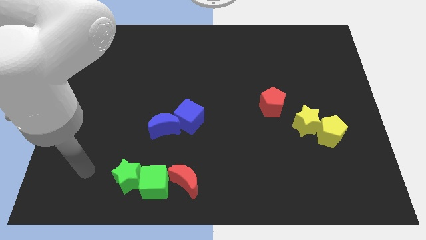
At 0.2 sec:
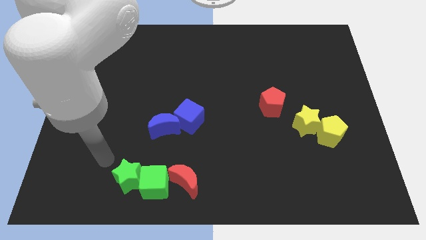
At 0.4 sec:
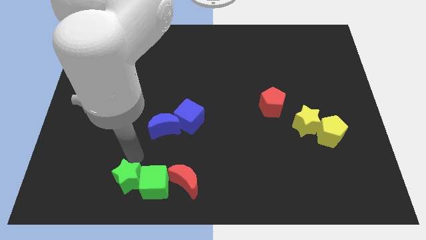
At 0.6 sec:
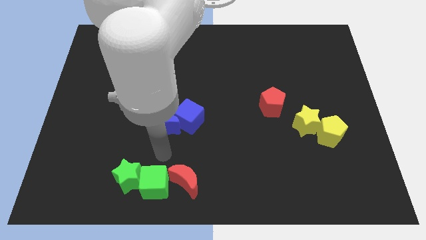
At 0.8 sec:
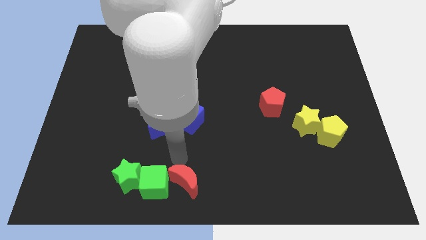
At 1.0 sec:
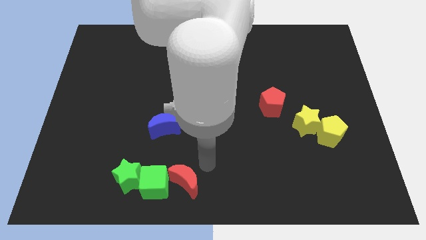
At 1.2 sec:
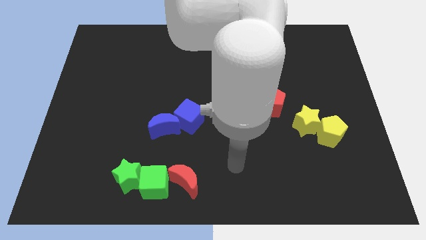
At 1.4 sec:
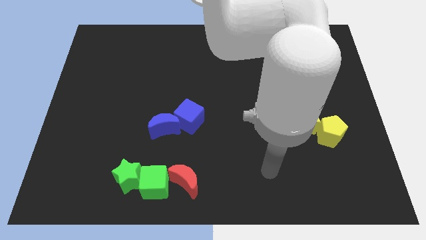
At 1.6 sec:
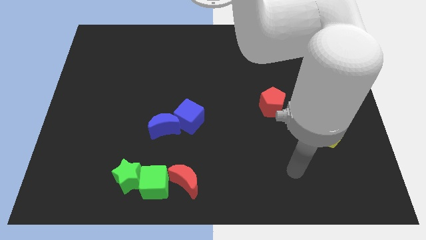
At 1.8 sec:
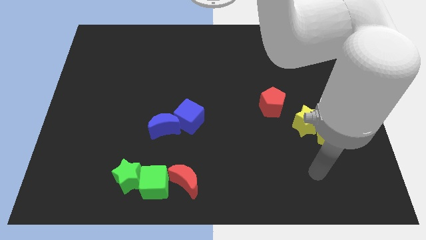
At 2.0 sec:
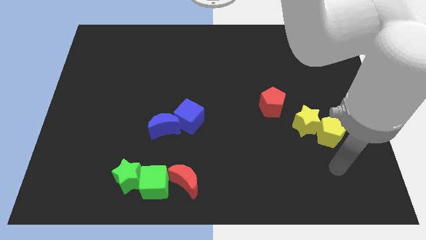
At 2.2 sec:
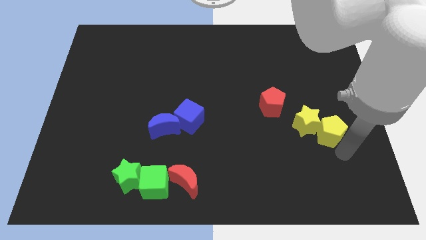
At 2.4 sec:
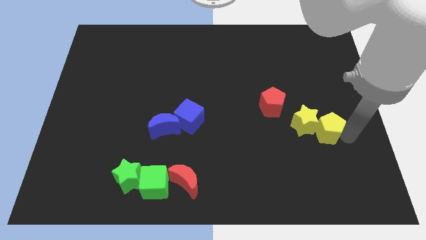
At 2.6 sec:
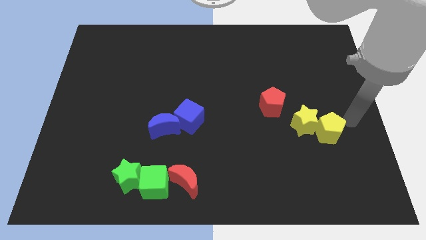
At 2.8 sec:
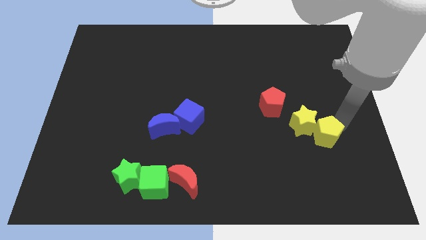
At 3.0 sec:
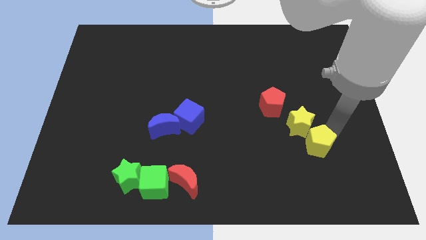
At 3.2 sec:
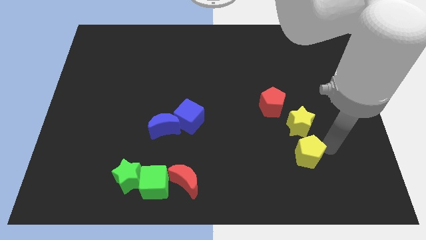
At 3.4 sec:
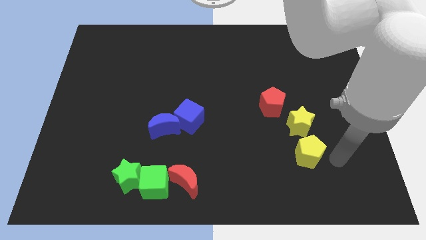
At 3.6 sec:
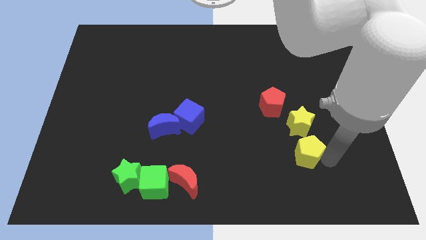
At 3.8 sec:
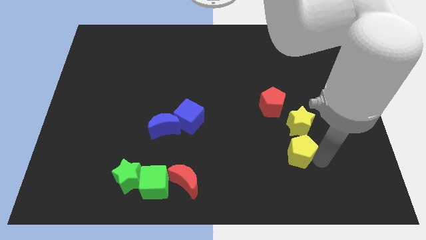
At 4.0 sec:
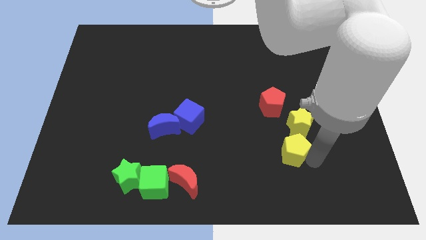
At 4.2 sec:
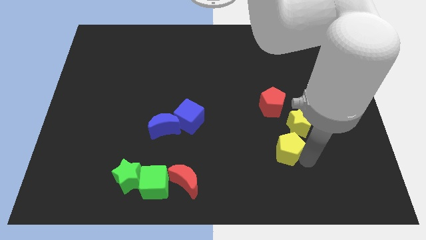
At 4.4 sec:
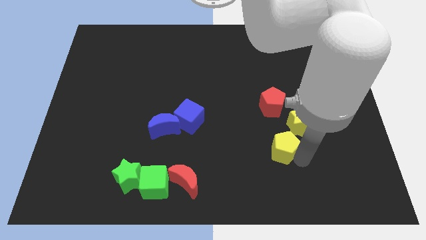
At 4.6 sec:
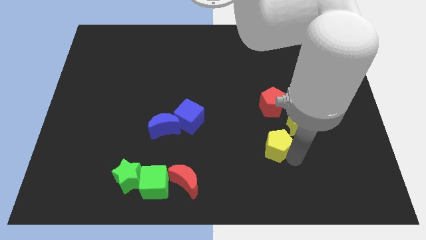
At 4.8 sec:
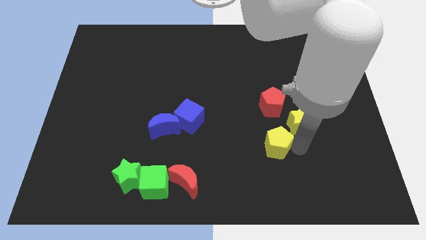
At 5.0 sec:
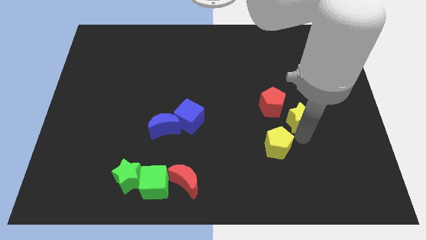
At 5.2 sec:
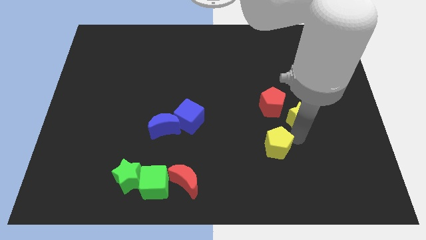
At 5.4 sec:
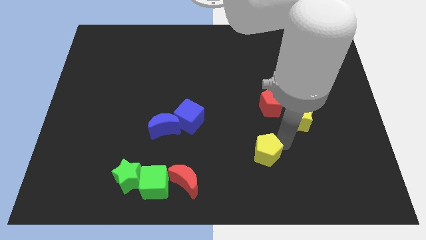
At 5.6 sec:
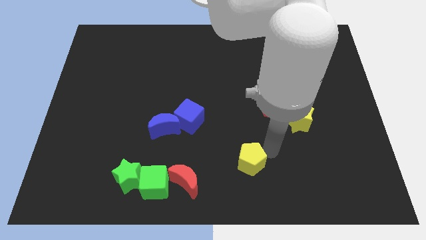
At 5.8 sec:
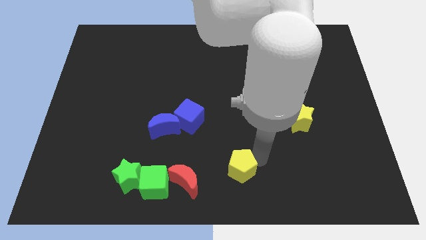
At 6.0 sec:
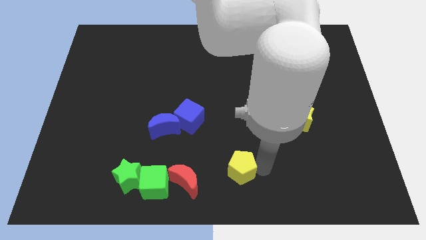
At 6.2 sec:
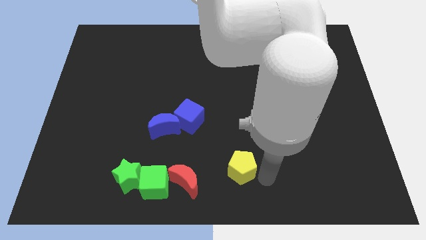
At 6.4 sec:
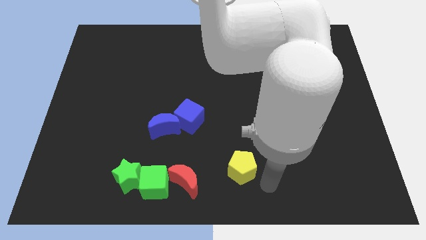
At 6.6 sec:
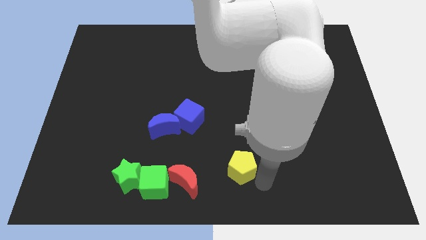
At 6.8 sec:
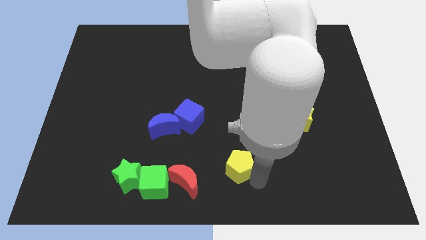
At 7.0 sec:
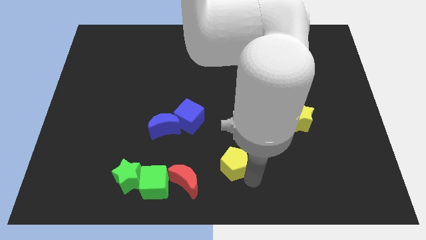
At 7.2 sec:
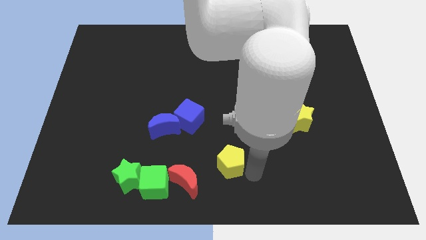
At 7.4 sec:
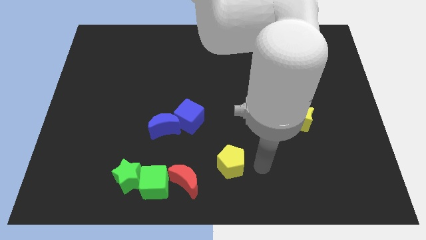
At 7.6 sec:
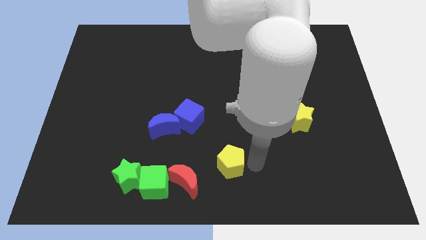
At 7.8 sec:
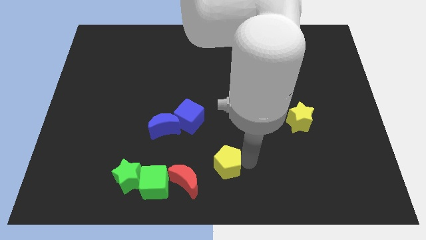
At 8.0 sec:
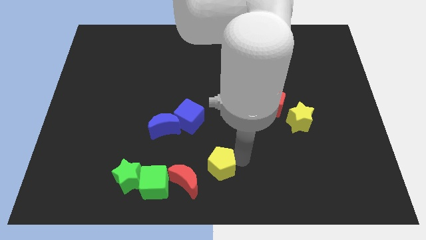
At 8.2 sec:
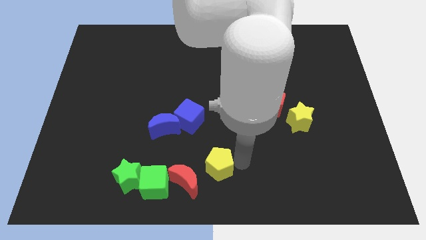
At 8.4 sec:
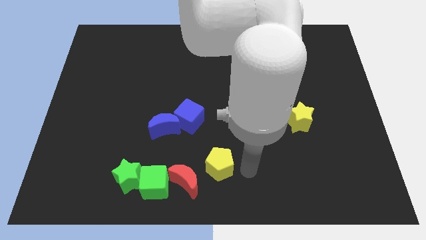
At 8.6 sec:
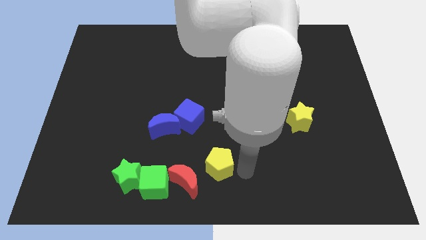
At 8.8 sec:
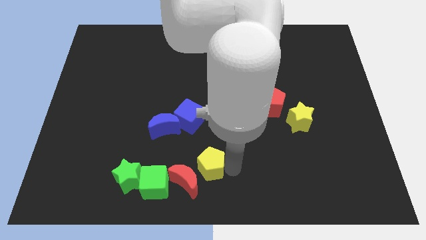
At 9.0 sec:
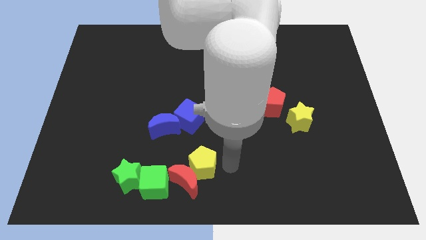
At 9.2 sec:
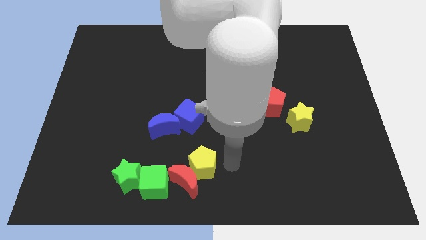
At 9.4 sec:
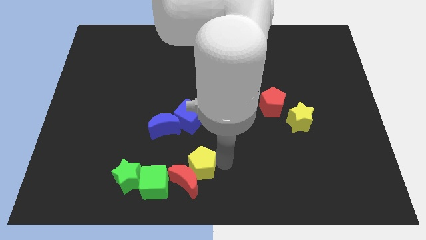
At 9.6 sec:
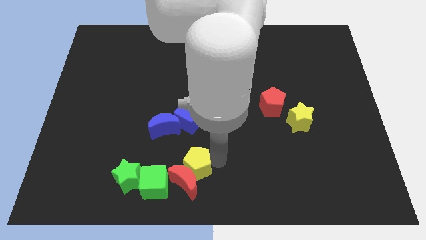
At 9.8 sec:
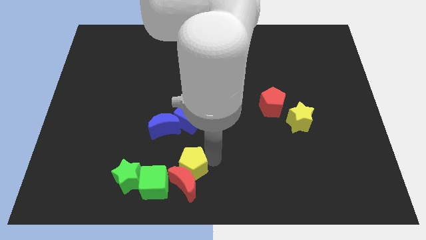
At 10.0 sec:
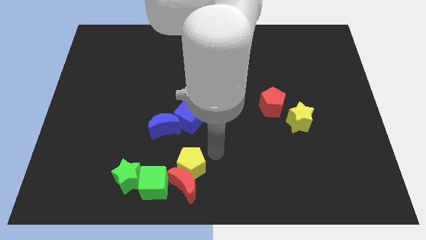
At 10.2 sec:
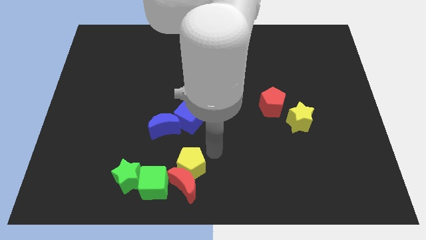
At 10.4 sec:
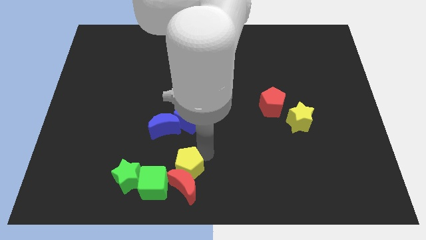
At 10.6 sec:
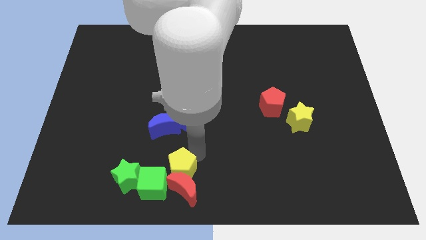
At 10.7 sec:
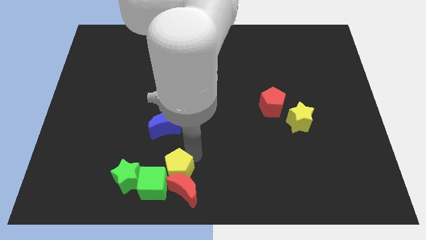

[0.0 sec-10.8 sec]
push the yellow pentagon towards the green cube
